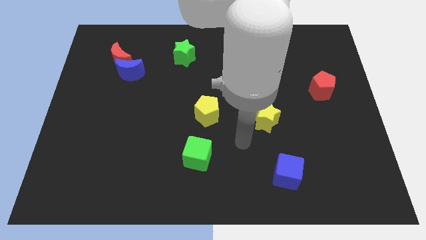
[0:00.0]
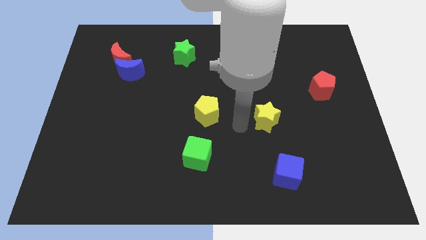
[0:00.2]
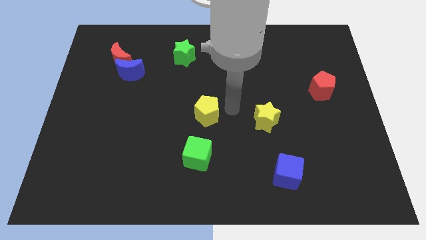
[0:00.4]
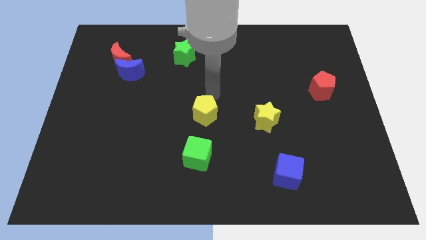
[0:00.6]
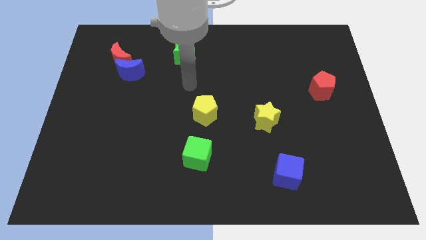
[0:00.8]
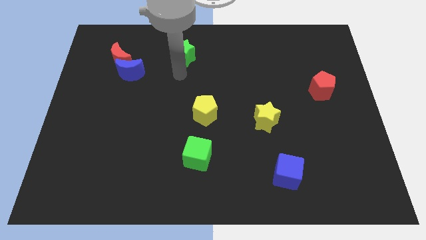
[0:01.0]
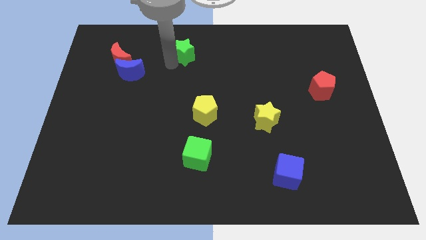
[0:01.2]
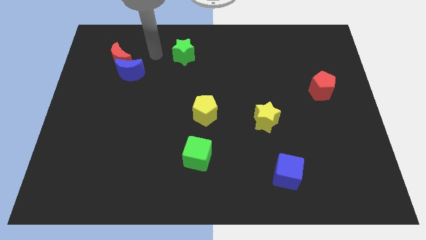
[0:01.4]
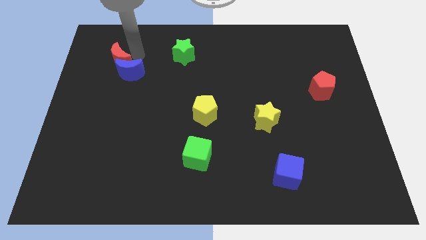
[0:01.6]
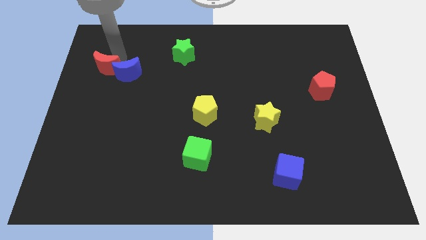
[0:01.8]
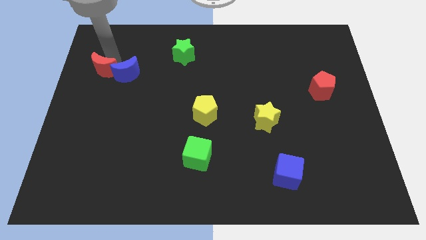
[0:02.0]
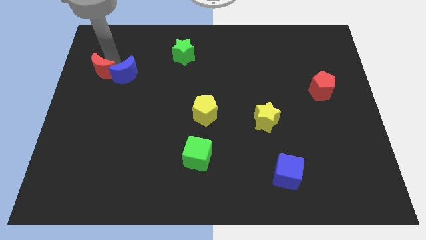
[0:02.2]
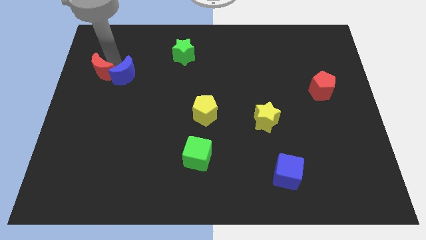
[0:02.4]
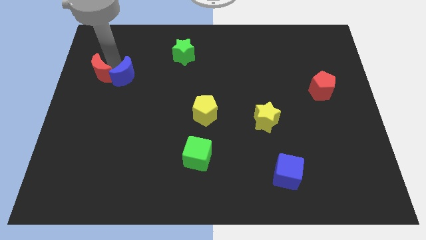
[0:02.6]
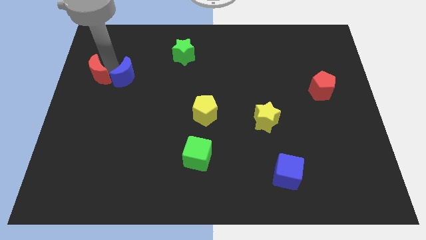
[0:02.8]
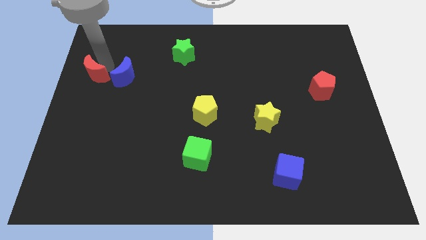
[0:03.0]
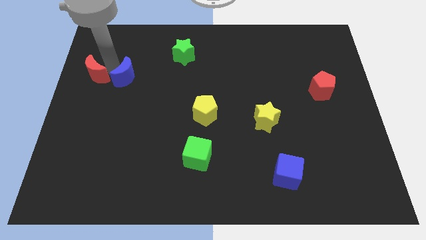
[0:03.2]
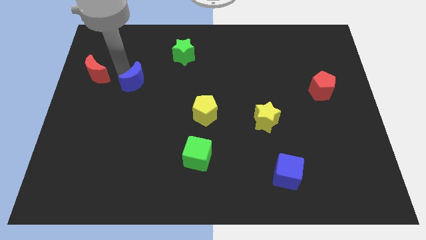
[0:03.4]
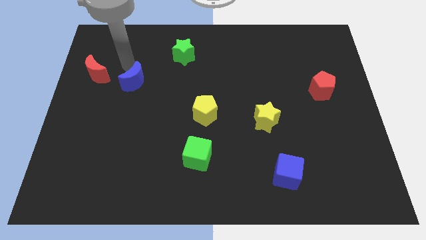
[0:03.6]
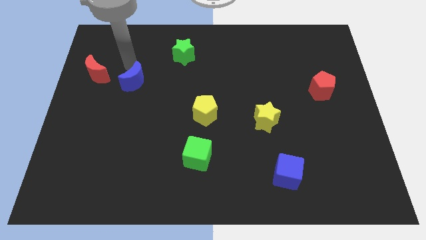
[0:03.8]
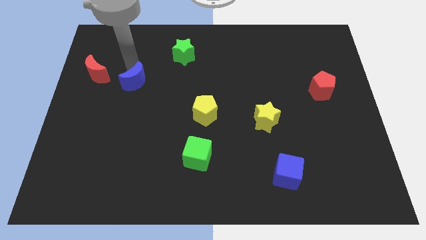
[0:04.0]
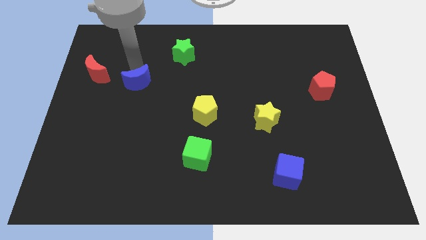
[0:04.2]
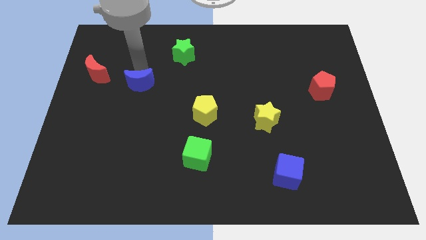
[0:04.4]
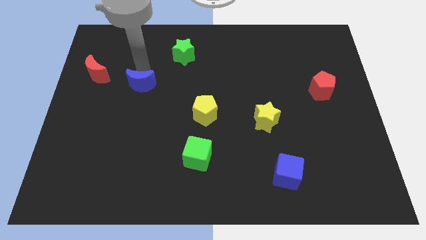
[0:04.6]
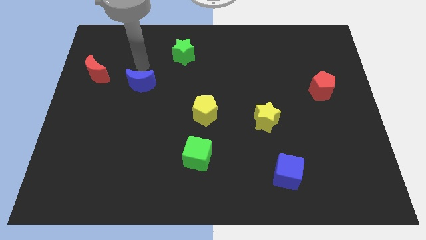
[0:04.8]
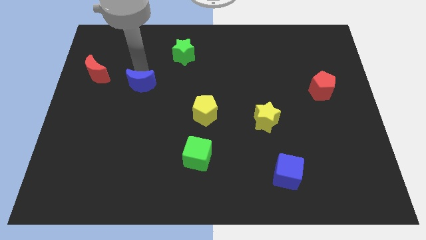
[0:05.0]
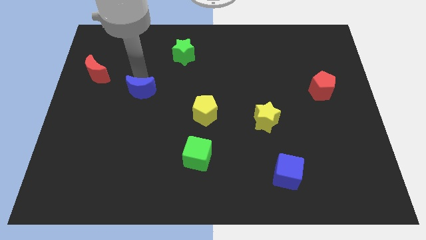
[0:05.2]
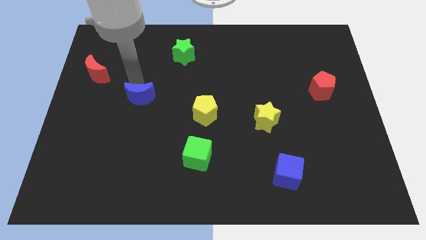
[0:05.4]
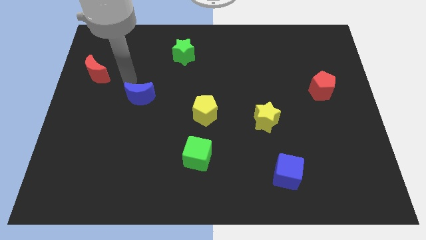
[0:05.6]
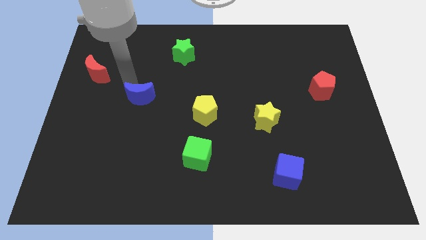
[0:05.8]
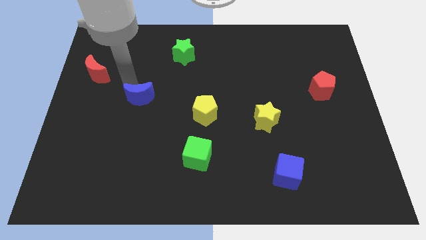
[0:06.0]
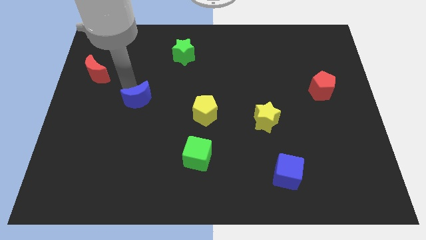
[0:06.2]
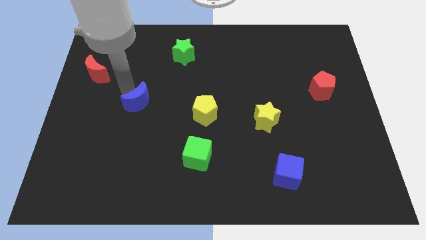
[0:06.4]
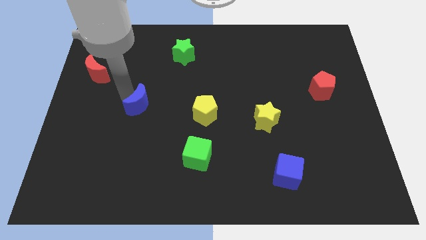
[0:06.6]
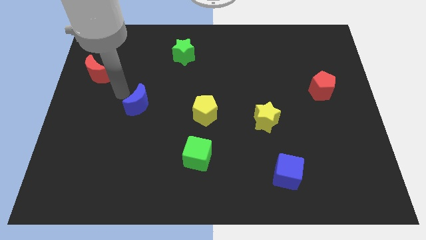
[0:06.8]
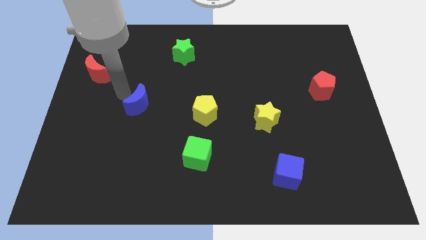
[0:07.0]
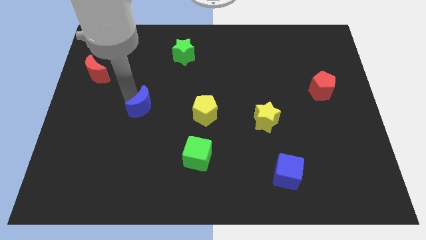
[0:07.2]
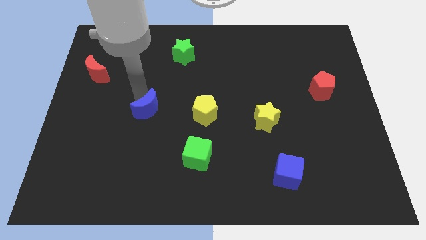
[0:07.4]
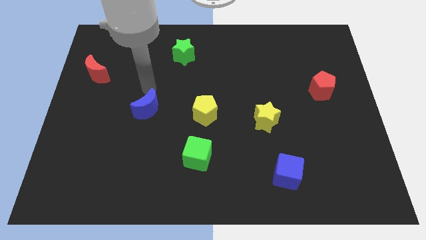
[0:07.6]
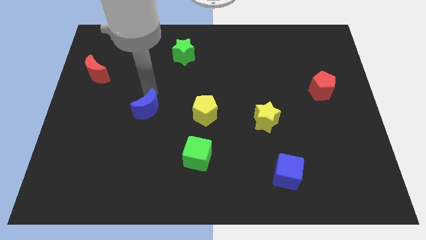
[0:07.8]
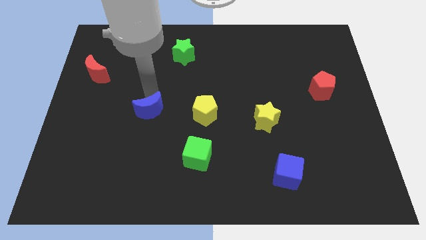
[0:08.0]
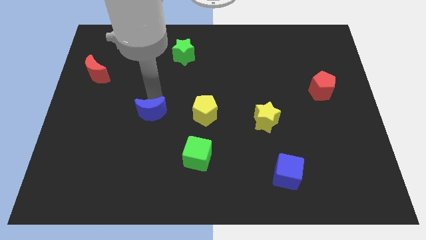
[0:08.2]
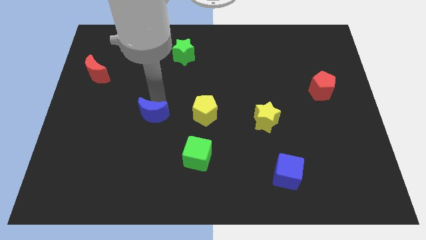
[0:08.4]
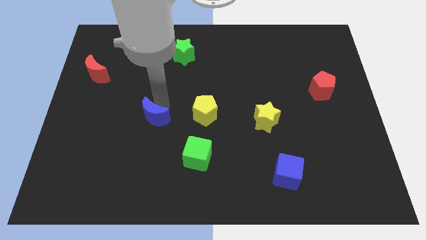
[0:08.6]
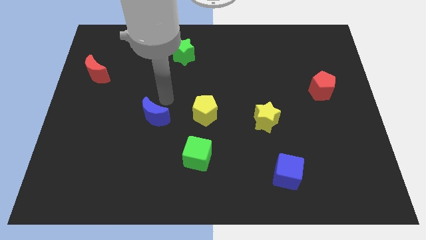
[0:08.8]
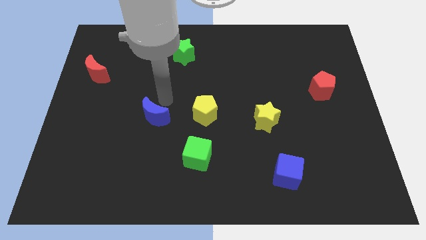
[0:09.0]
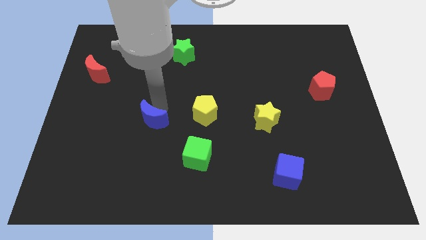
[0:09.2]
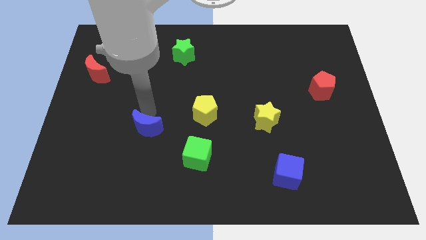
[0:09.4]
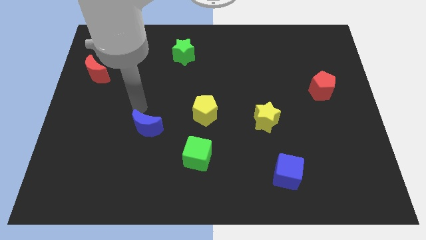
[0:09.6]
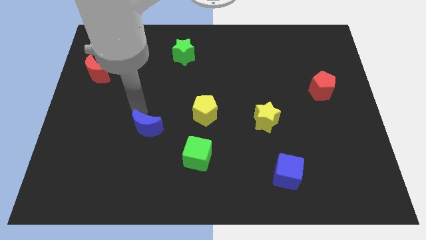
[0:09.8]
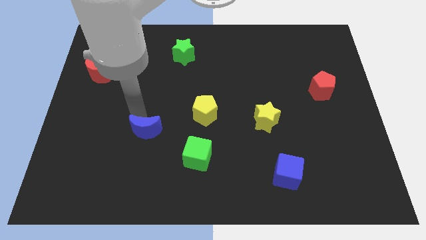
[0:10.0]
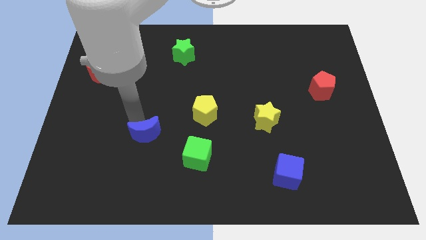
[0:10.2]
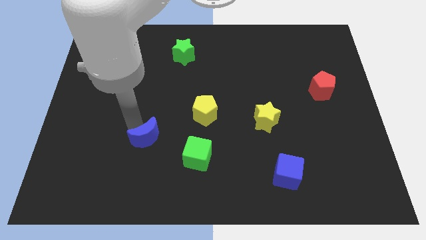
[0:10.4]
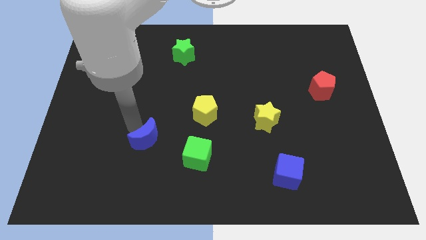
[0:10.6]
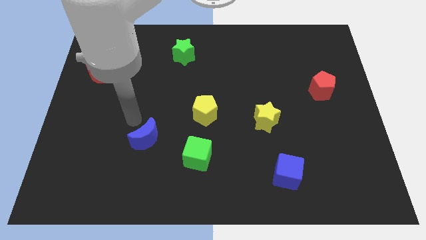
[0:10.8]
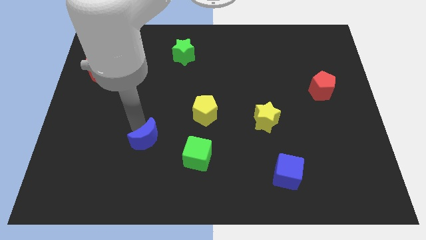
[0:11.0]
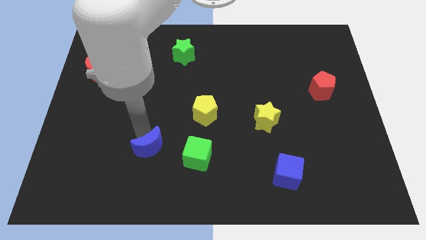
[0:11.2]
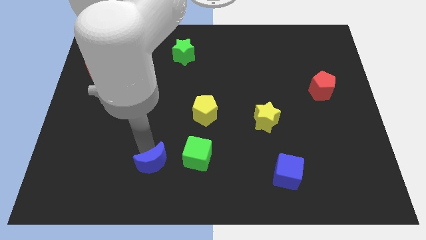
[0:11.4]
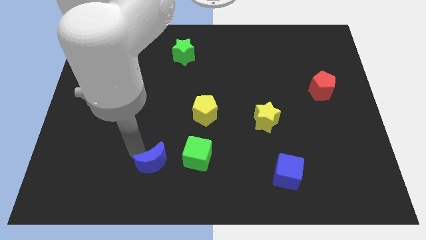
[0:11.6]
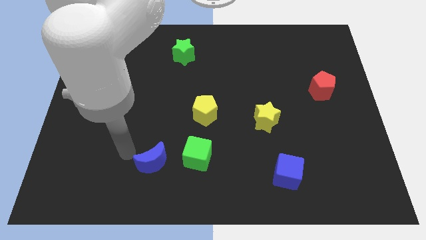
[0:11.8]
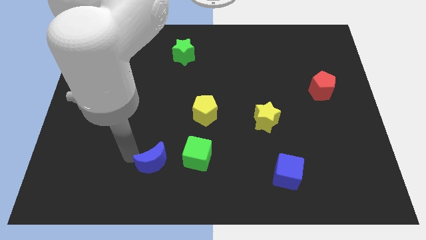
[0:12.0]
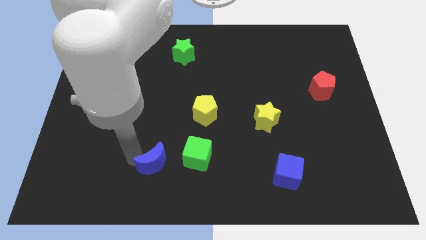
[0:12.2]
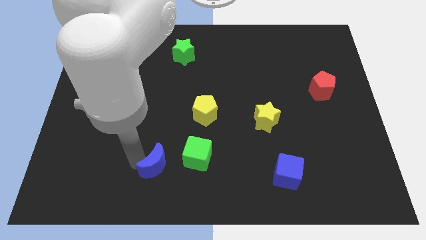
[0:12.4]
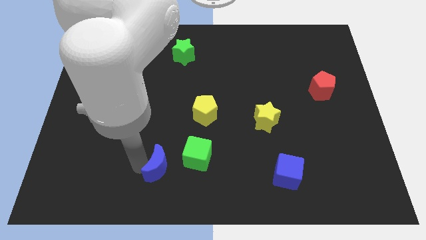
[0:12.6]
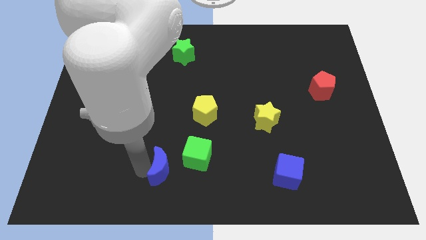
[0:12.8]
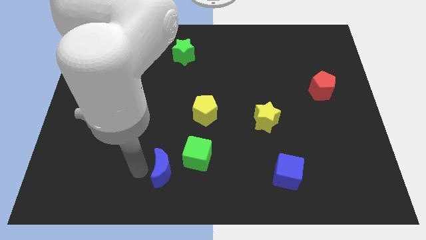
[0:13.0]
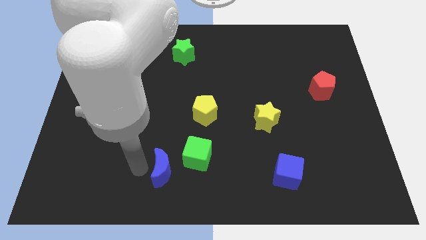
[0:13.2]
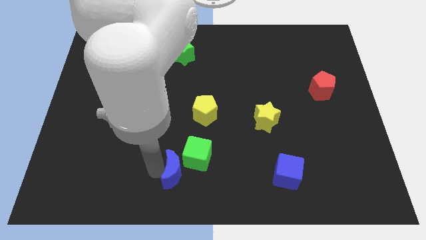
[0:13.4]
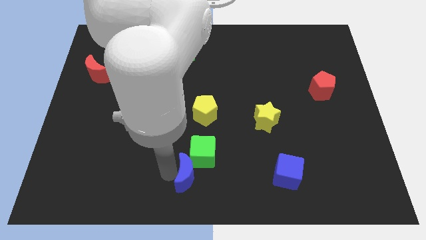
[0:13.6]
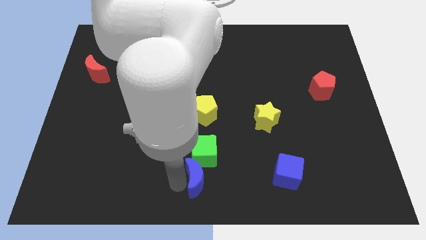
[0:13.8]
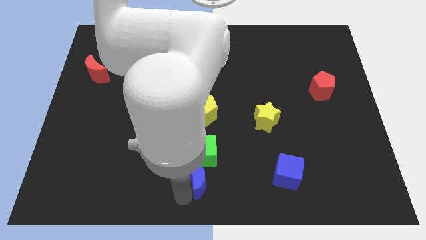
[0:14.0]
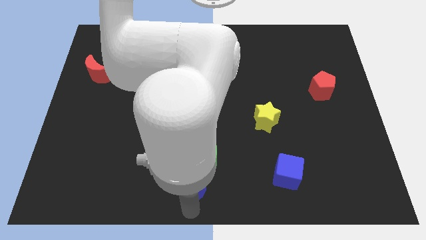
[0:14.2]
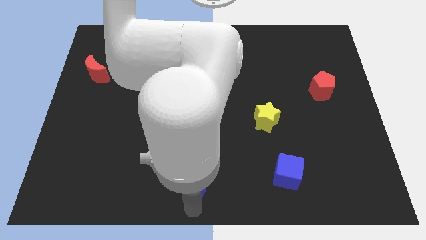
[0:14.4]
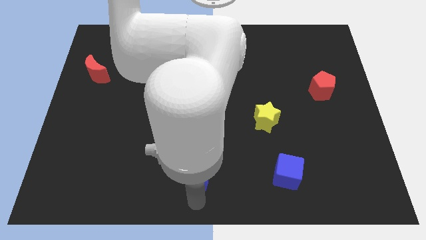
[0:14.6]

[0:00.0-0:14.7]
slide the blue moon to the bottom of the yellow pentagon

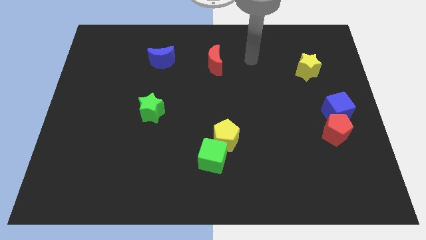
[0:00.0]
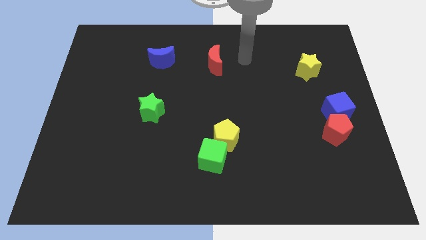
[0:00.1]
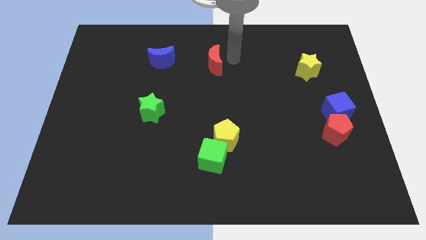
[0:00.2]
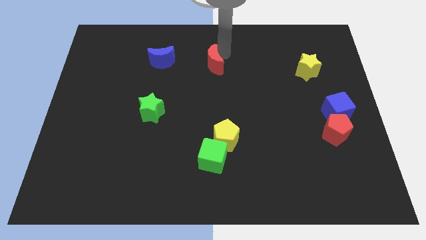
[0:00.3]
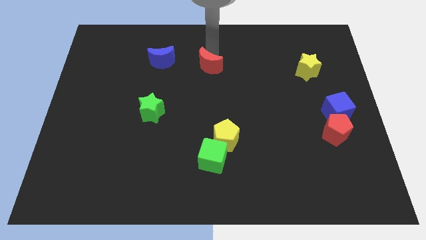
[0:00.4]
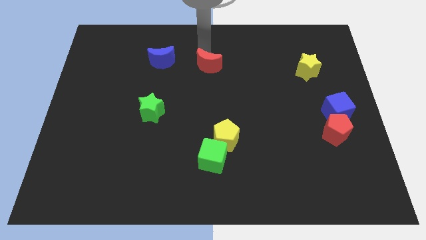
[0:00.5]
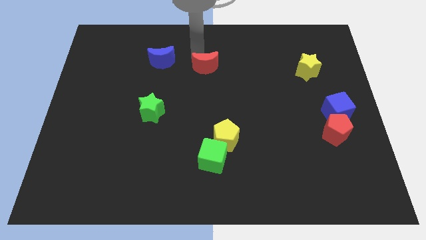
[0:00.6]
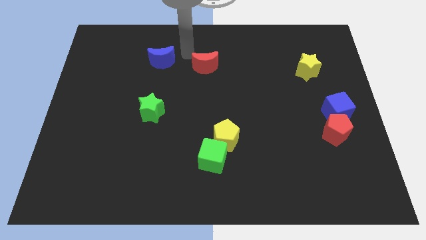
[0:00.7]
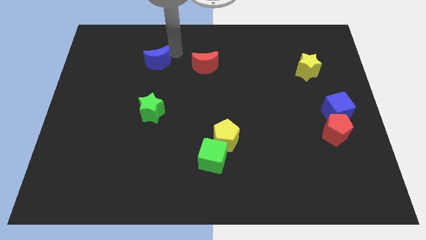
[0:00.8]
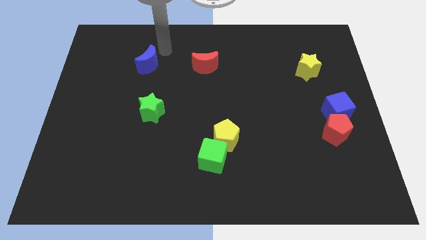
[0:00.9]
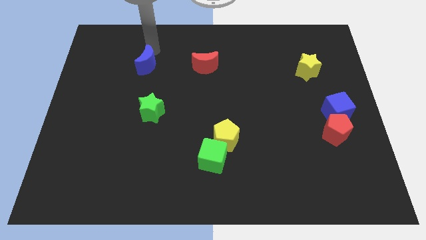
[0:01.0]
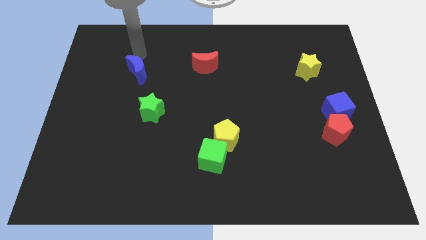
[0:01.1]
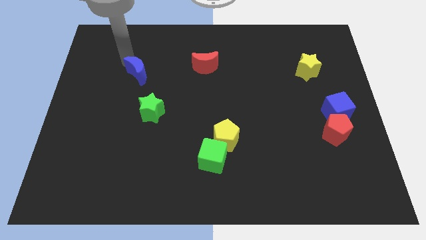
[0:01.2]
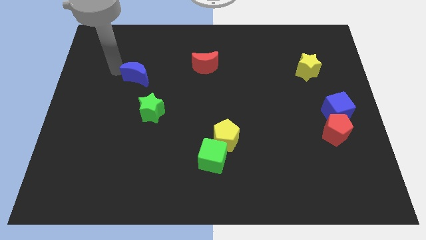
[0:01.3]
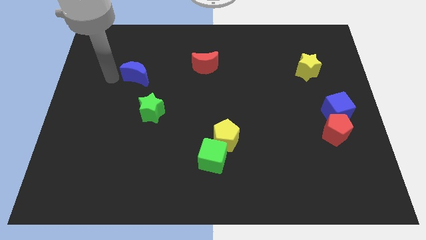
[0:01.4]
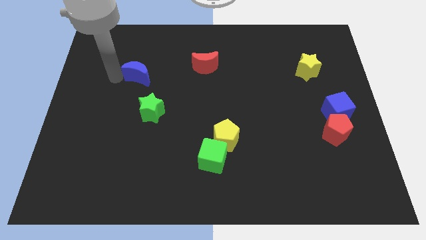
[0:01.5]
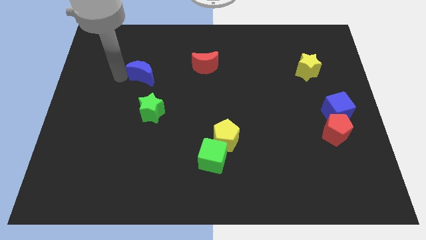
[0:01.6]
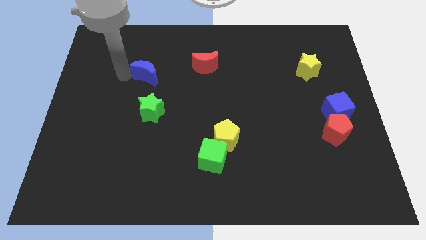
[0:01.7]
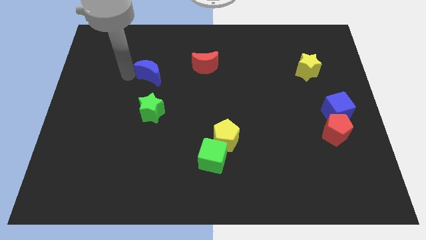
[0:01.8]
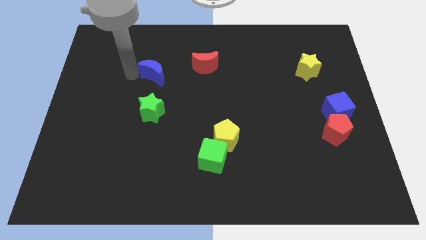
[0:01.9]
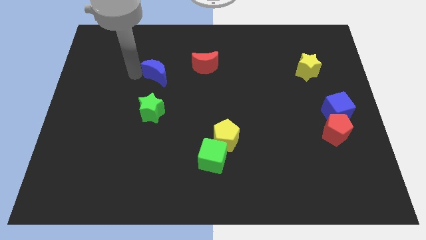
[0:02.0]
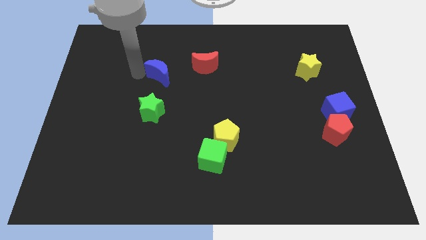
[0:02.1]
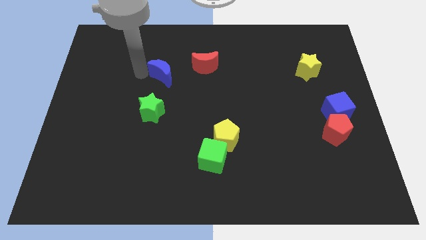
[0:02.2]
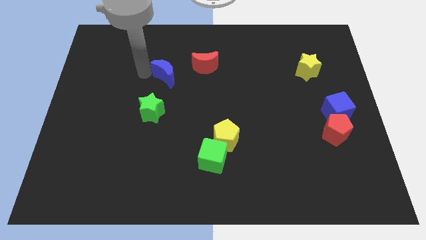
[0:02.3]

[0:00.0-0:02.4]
move the blue moon to the bottom left side of the red moon
